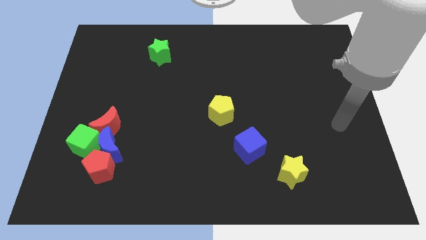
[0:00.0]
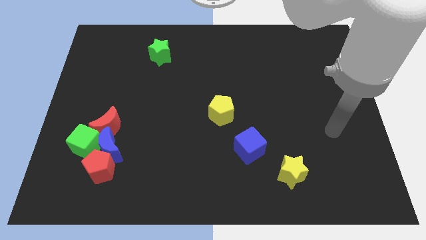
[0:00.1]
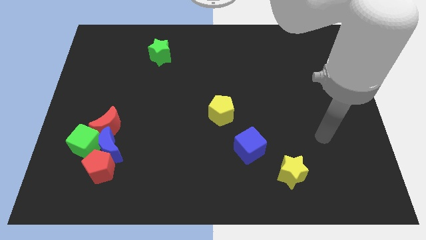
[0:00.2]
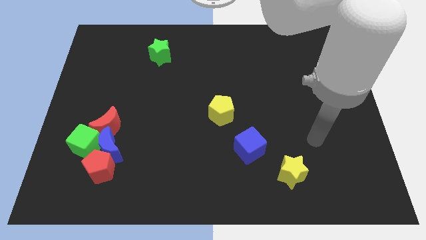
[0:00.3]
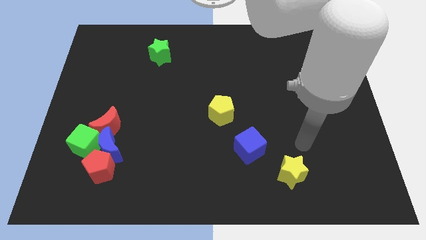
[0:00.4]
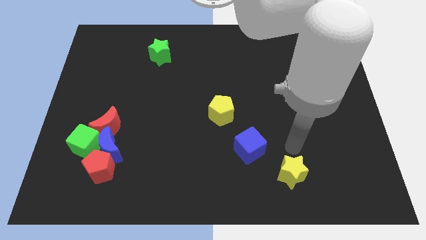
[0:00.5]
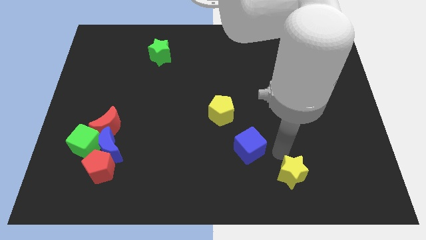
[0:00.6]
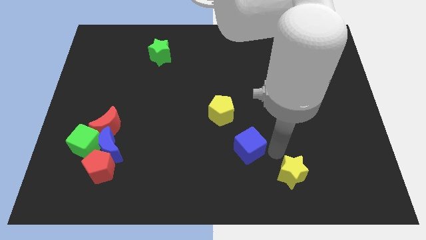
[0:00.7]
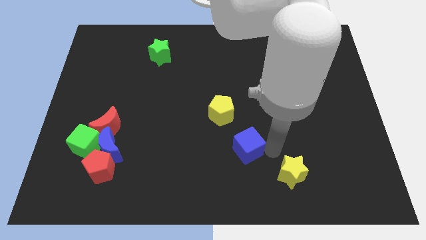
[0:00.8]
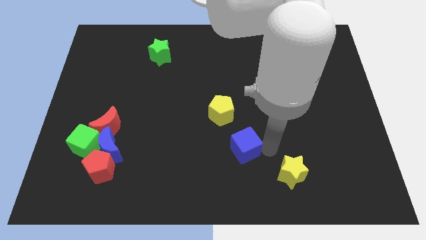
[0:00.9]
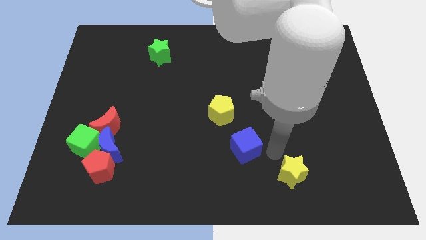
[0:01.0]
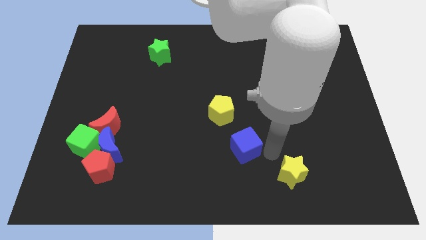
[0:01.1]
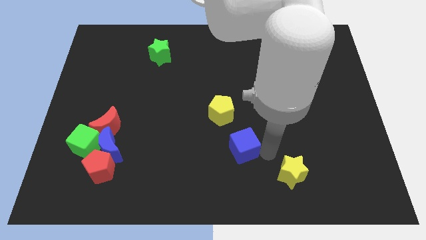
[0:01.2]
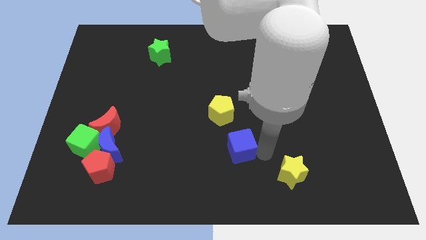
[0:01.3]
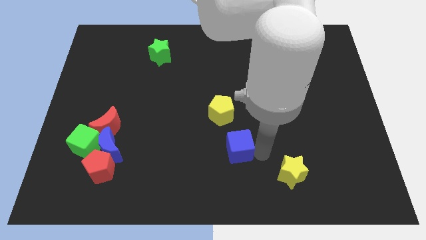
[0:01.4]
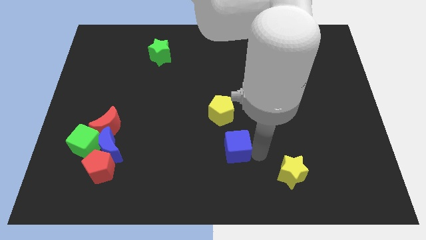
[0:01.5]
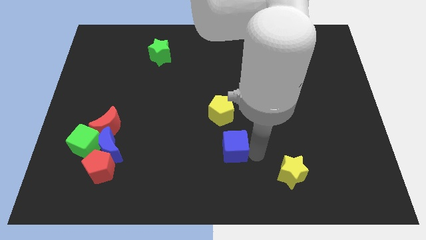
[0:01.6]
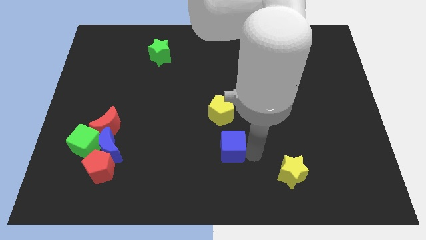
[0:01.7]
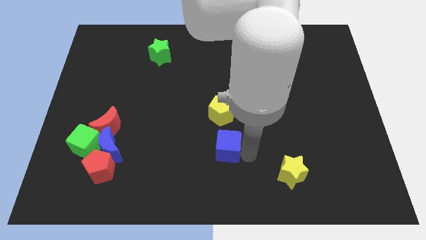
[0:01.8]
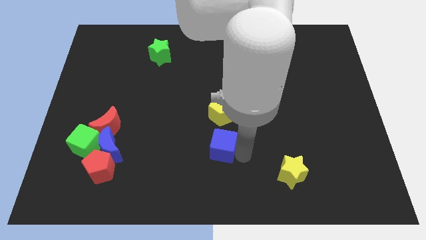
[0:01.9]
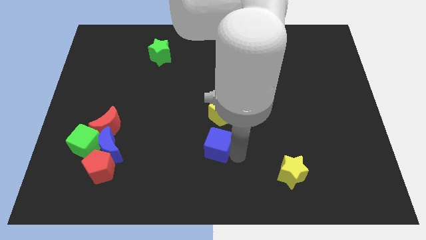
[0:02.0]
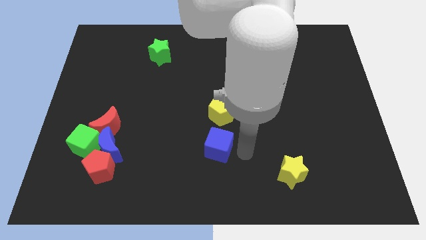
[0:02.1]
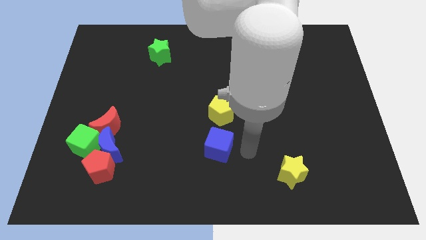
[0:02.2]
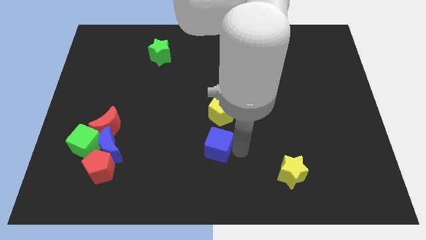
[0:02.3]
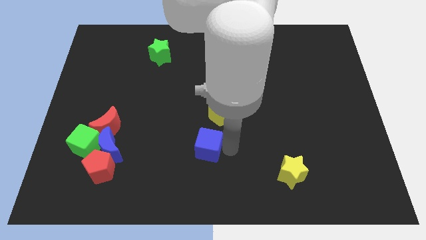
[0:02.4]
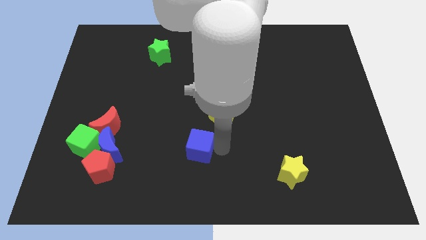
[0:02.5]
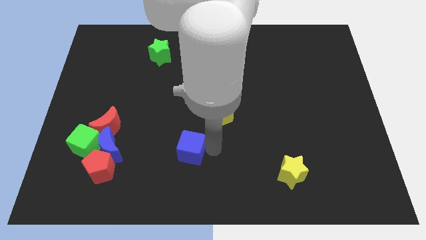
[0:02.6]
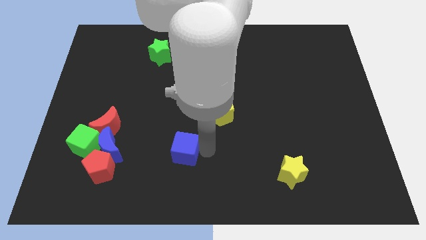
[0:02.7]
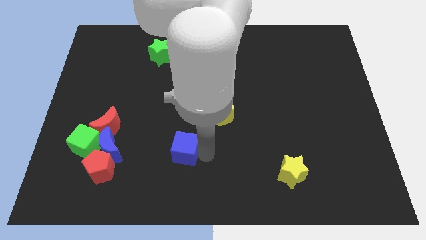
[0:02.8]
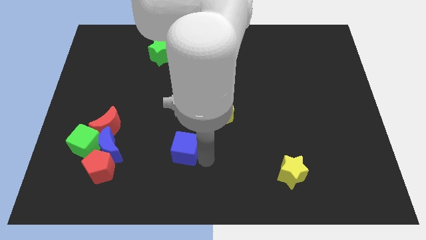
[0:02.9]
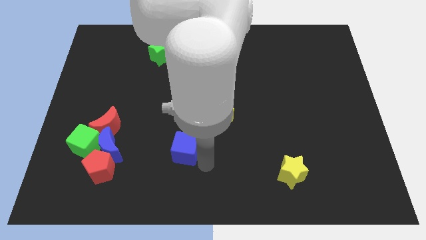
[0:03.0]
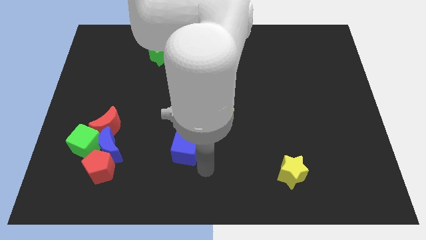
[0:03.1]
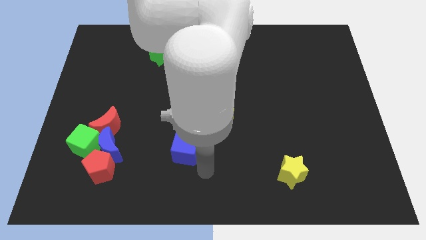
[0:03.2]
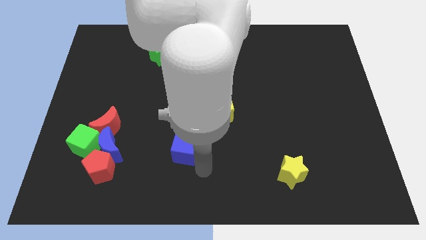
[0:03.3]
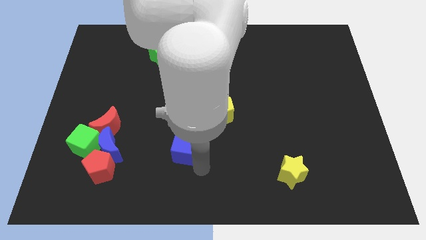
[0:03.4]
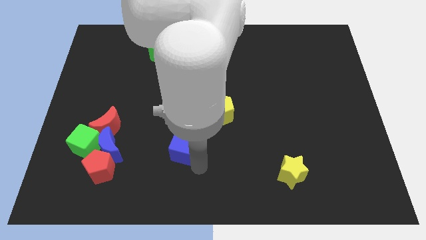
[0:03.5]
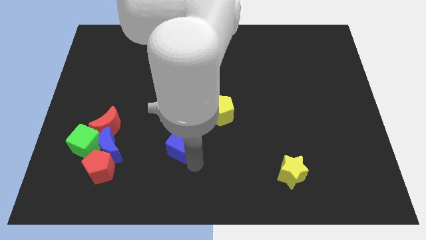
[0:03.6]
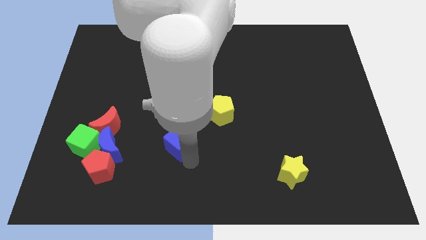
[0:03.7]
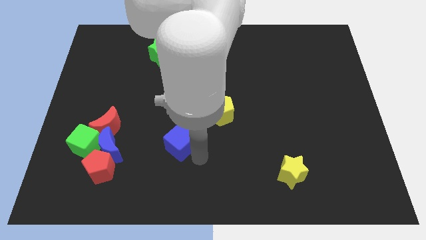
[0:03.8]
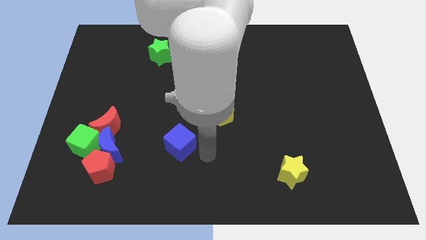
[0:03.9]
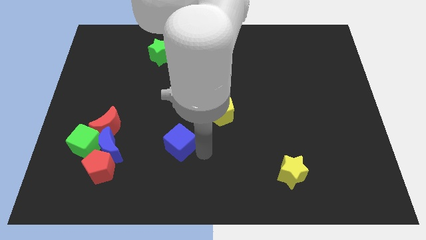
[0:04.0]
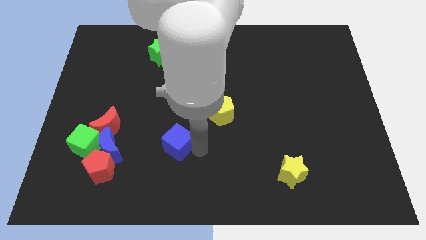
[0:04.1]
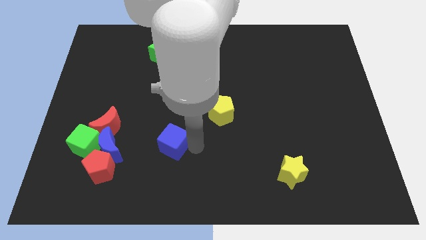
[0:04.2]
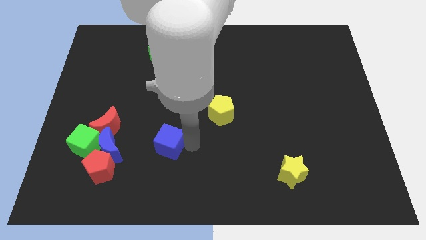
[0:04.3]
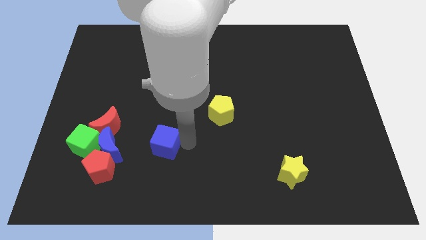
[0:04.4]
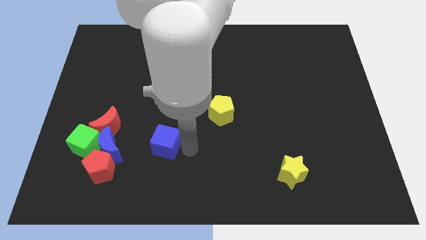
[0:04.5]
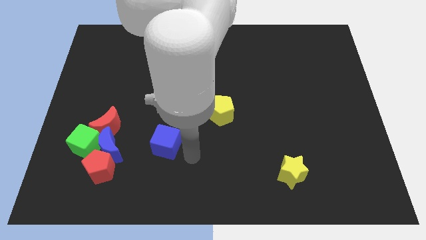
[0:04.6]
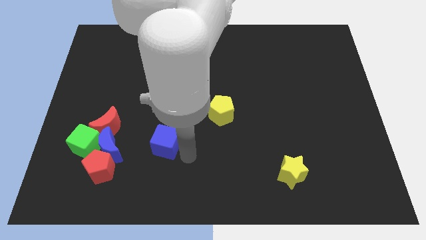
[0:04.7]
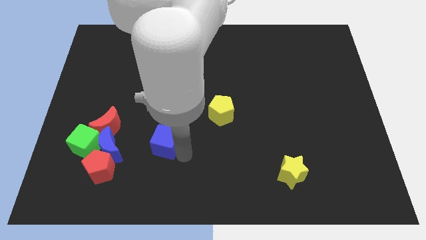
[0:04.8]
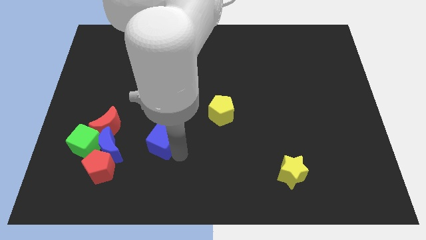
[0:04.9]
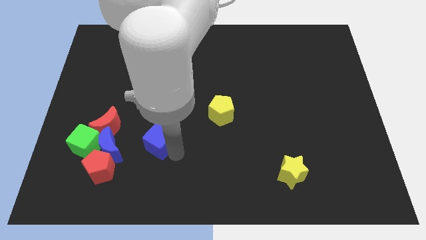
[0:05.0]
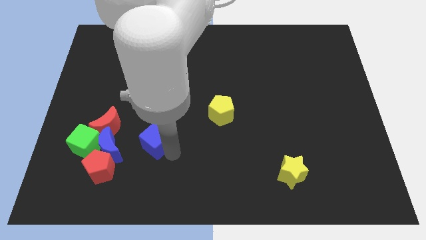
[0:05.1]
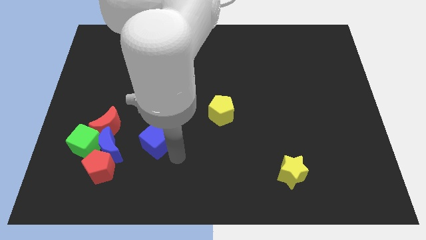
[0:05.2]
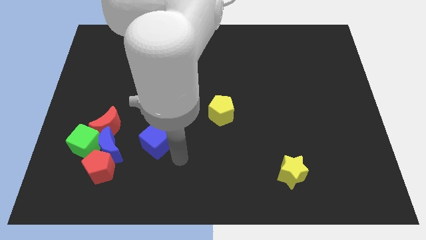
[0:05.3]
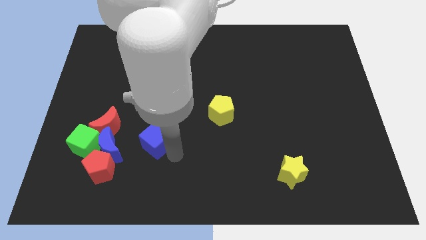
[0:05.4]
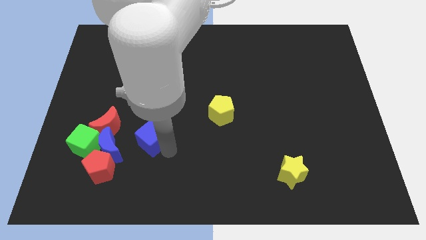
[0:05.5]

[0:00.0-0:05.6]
push the blue cube to the top right of the blue moon

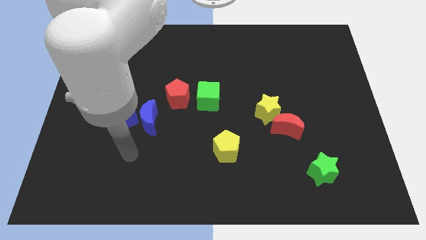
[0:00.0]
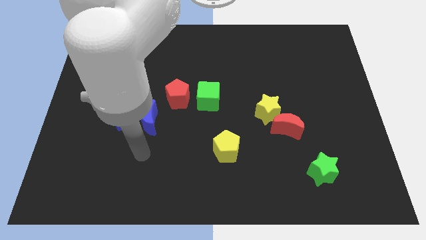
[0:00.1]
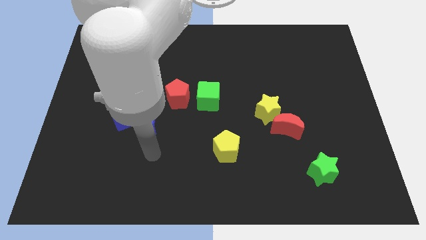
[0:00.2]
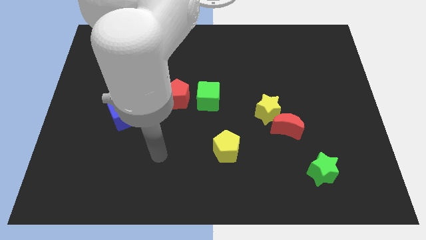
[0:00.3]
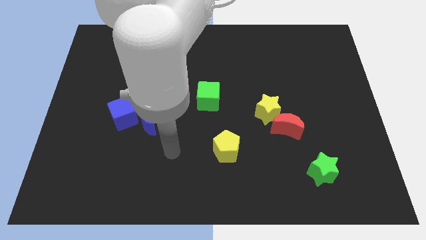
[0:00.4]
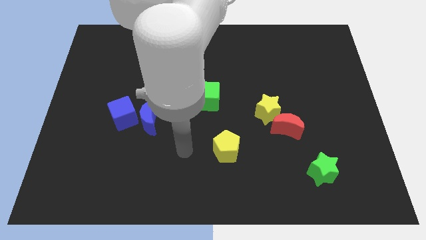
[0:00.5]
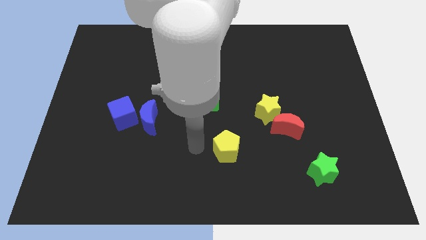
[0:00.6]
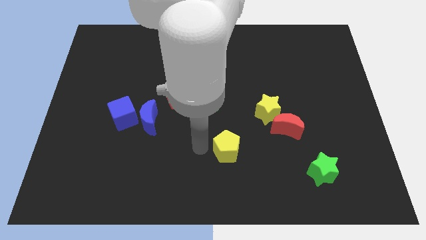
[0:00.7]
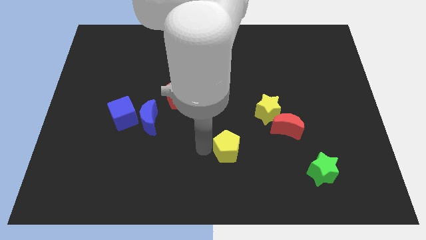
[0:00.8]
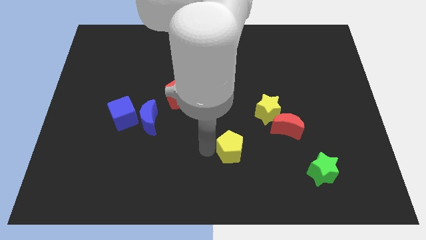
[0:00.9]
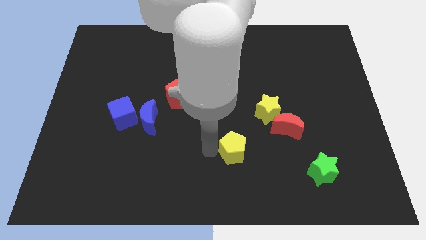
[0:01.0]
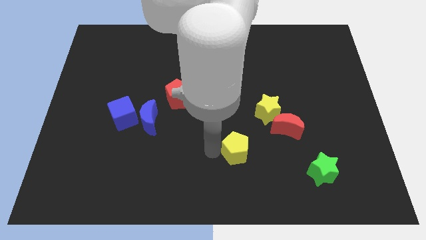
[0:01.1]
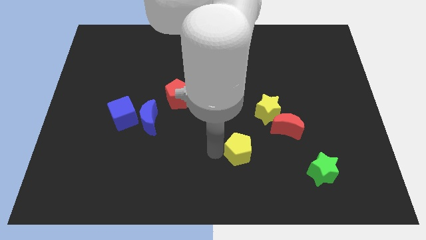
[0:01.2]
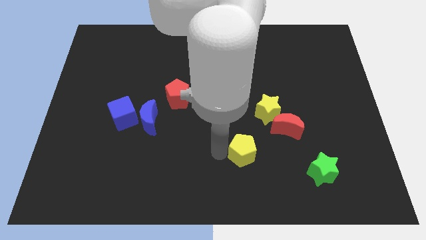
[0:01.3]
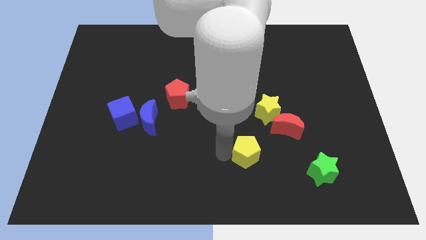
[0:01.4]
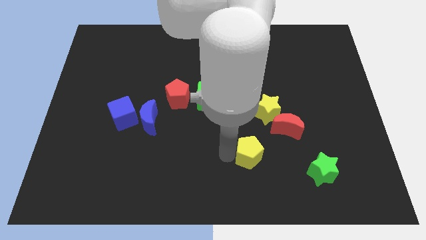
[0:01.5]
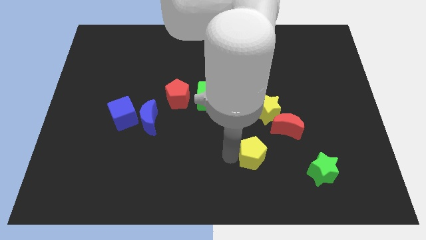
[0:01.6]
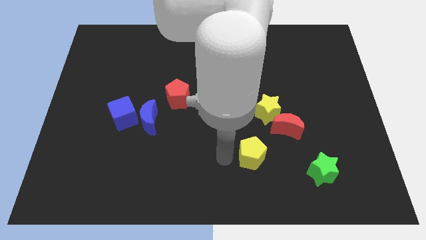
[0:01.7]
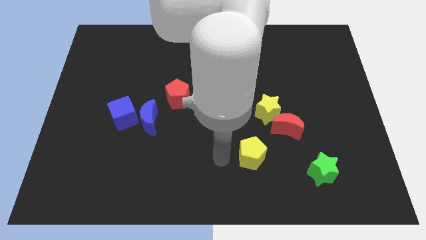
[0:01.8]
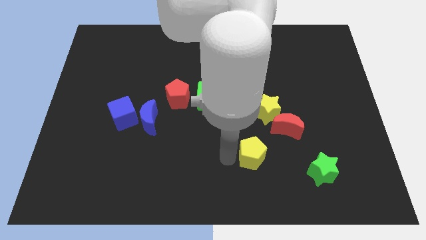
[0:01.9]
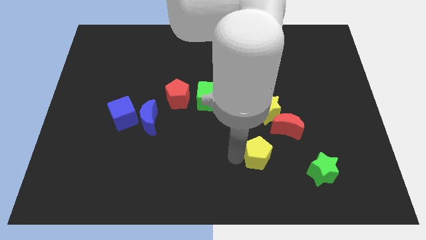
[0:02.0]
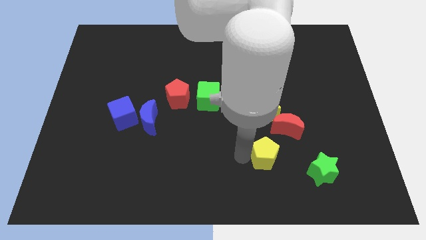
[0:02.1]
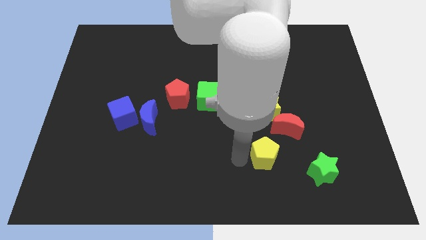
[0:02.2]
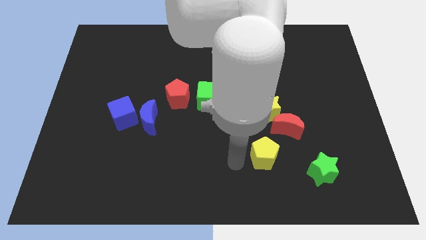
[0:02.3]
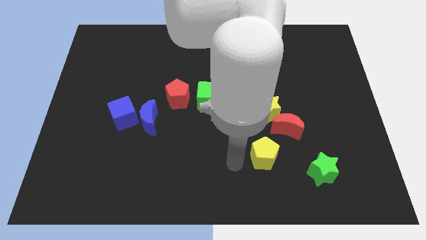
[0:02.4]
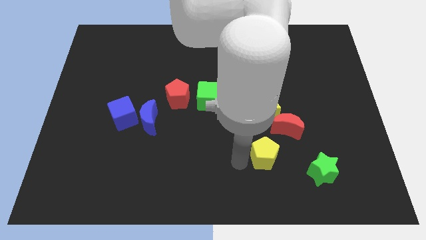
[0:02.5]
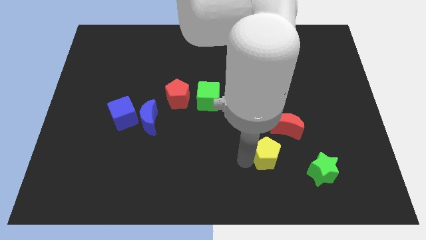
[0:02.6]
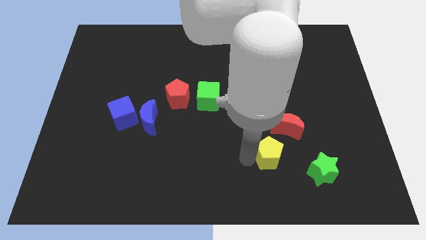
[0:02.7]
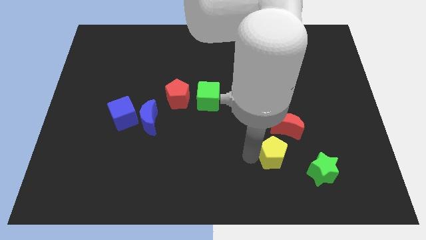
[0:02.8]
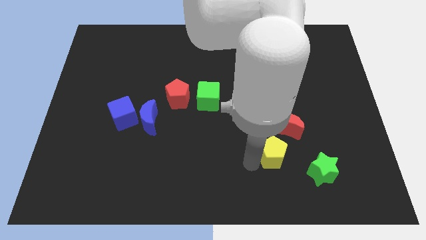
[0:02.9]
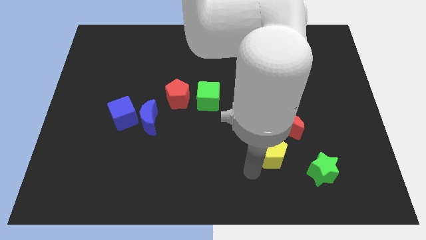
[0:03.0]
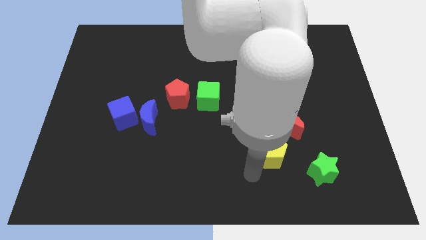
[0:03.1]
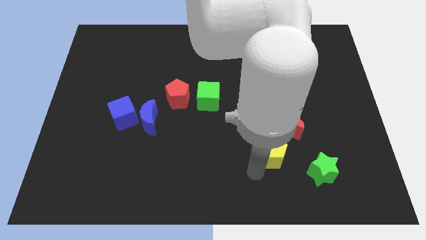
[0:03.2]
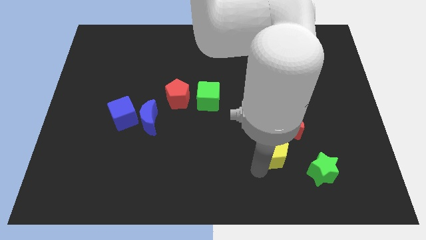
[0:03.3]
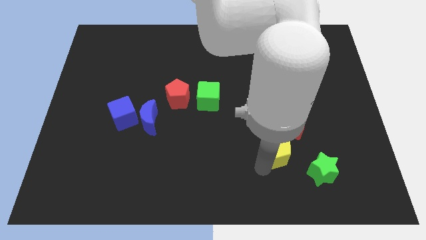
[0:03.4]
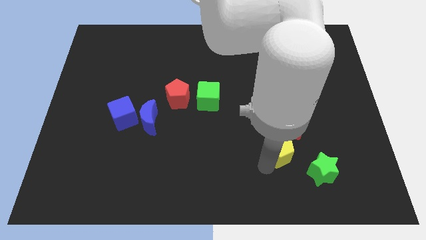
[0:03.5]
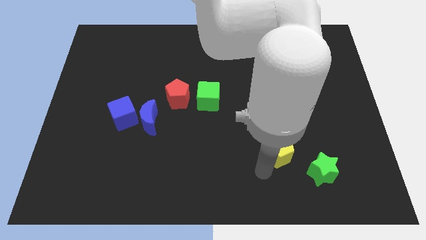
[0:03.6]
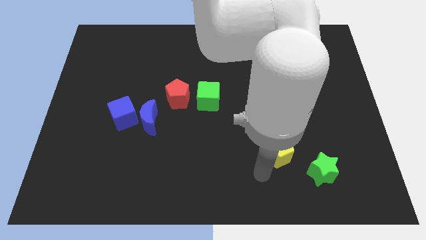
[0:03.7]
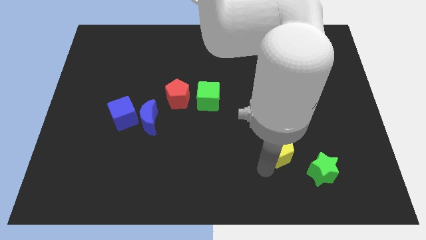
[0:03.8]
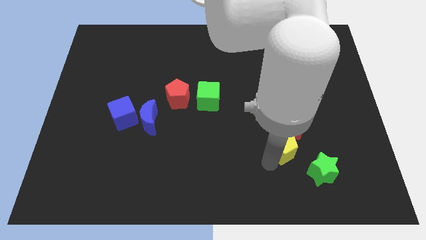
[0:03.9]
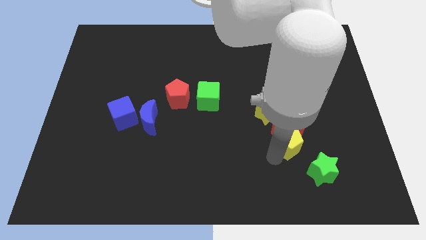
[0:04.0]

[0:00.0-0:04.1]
move the yellow pentagon diagonally down and to the right of the yellow star
